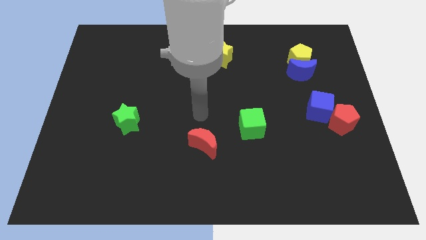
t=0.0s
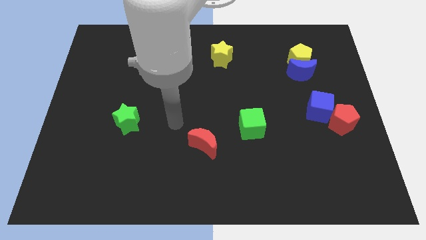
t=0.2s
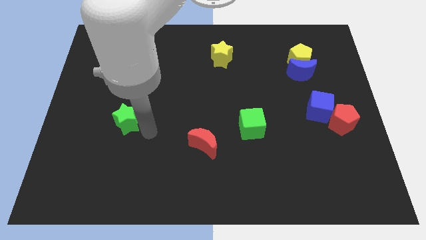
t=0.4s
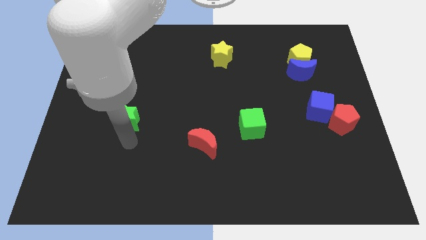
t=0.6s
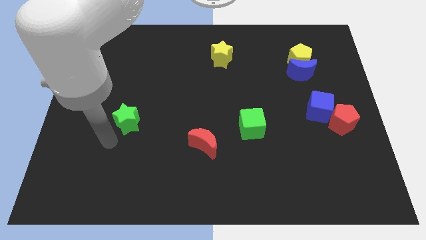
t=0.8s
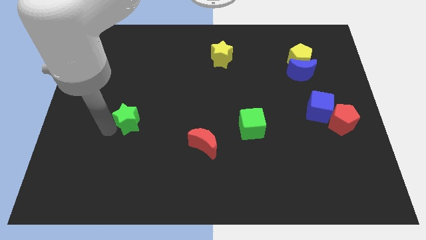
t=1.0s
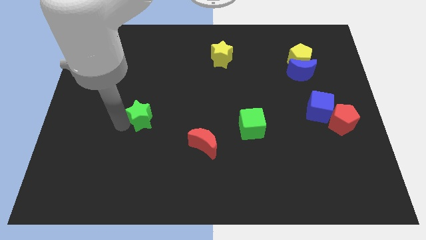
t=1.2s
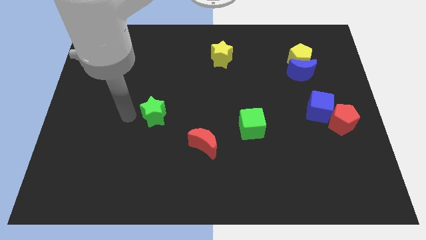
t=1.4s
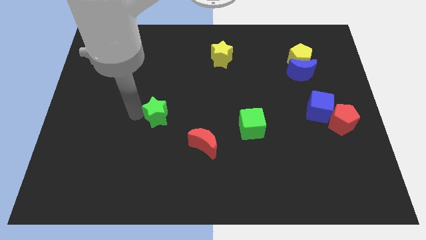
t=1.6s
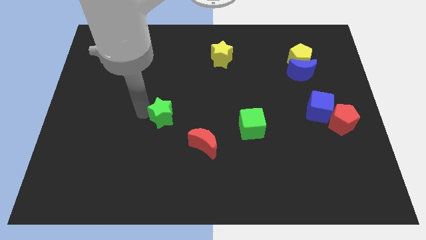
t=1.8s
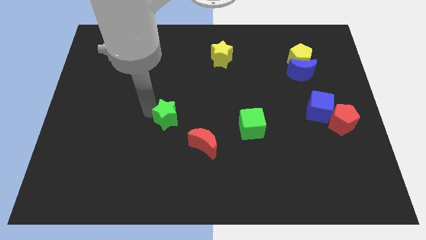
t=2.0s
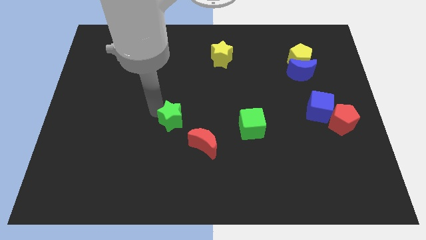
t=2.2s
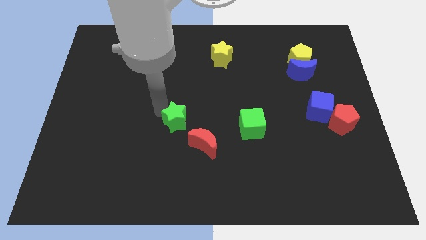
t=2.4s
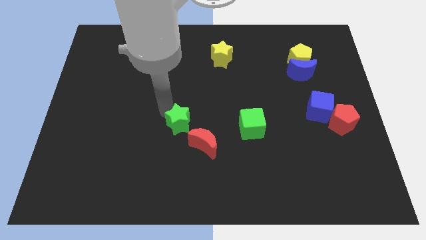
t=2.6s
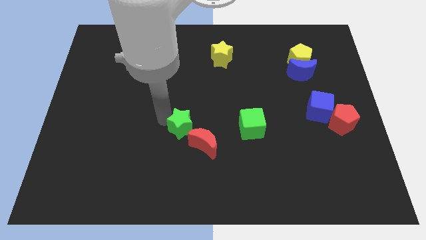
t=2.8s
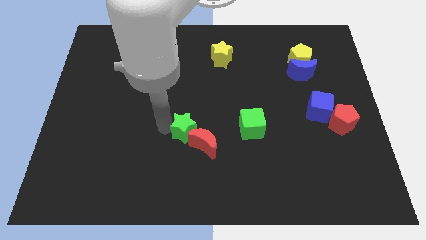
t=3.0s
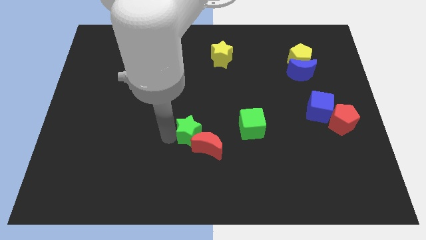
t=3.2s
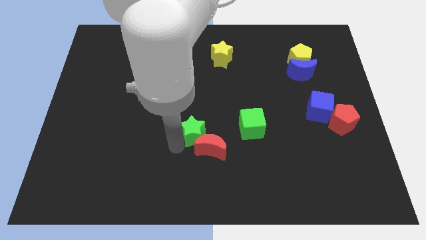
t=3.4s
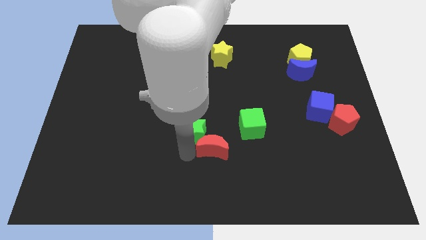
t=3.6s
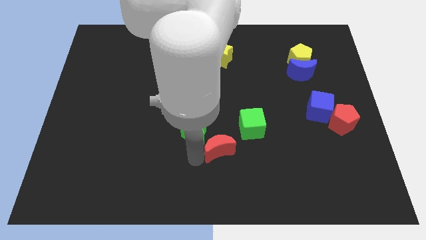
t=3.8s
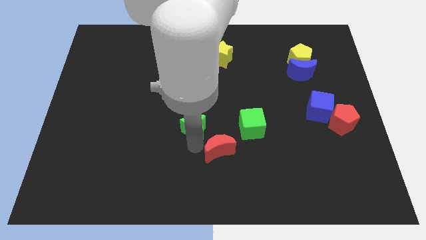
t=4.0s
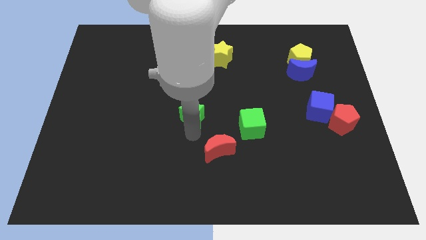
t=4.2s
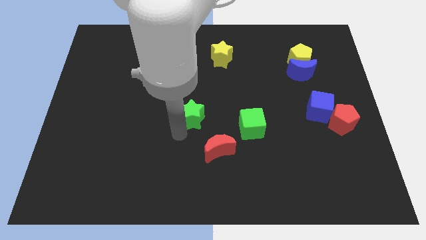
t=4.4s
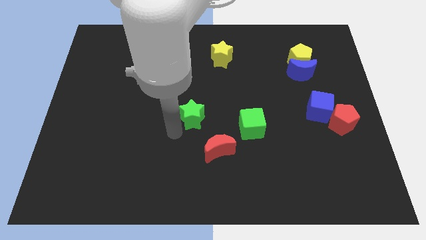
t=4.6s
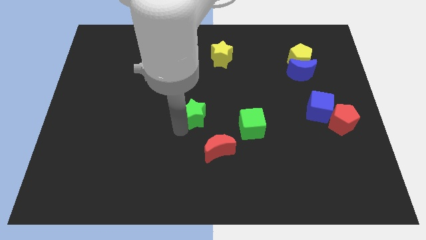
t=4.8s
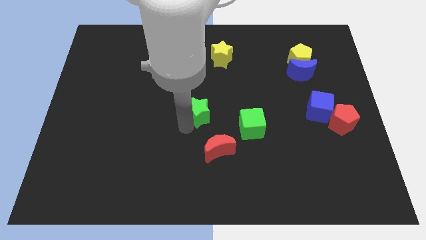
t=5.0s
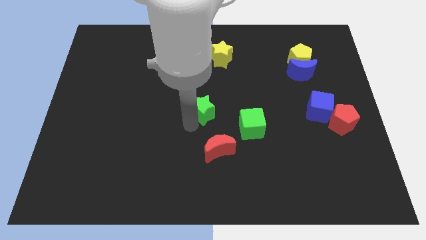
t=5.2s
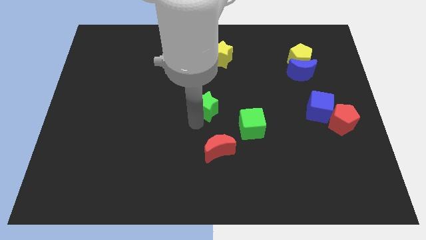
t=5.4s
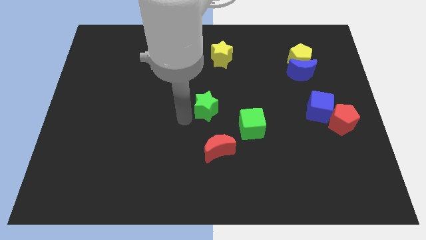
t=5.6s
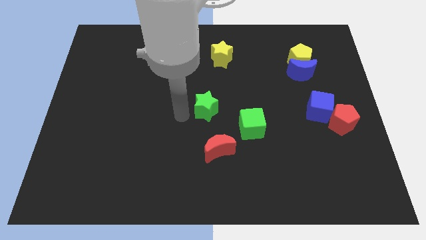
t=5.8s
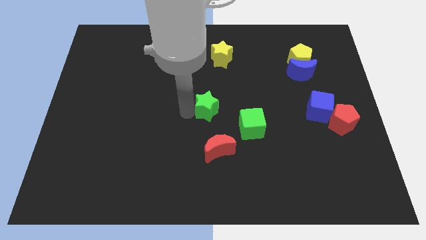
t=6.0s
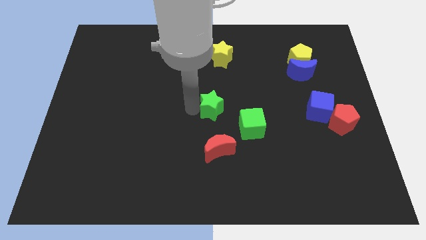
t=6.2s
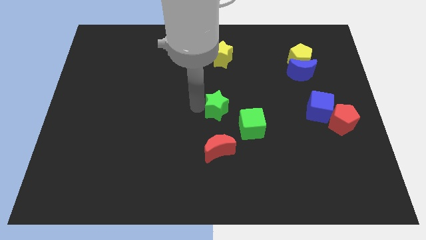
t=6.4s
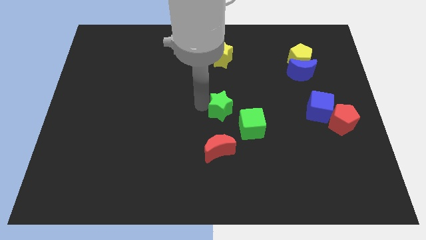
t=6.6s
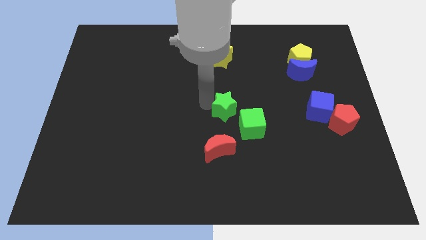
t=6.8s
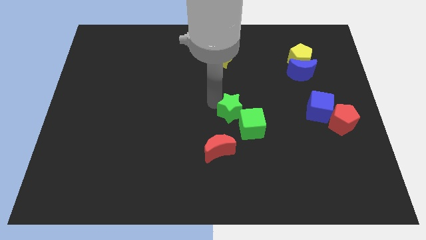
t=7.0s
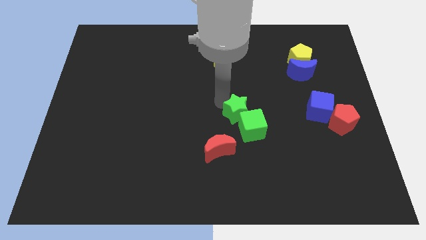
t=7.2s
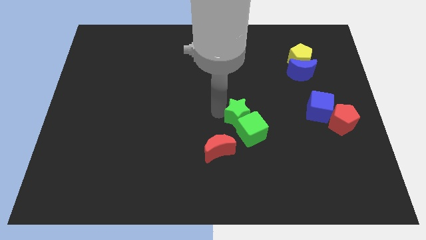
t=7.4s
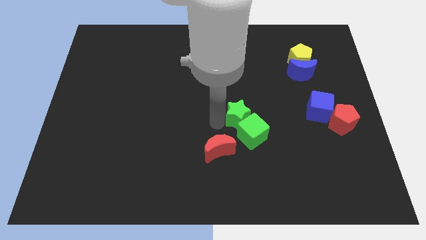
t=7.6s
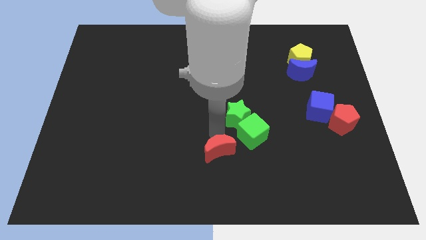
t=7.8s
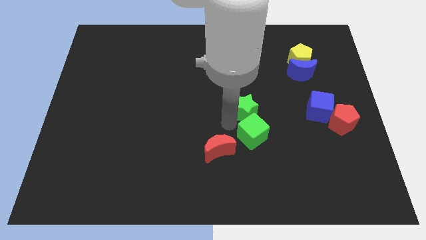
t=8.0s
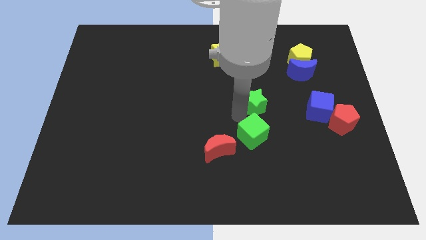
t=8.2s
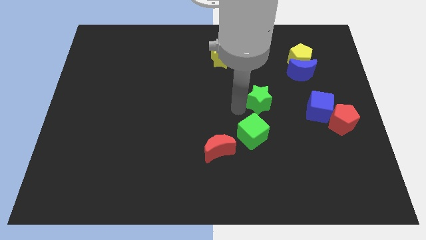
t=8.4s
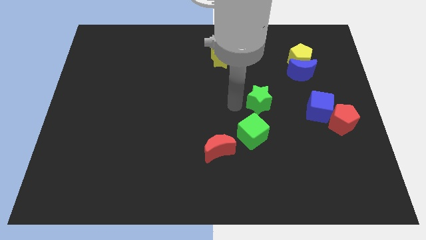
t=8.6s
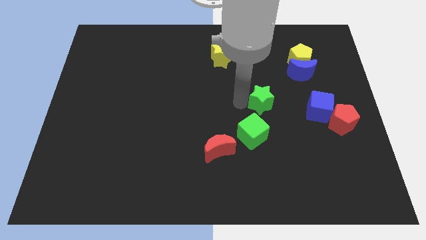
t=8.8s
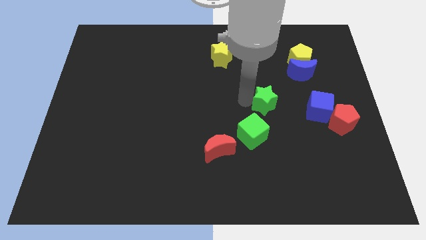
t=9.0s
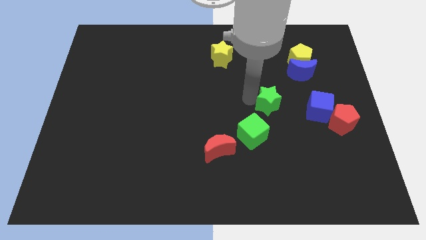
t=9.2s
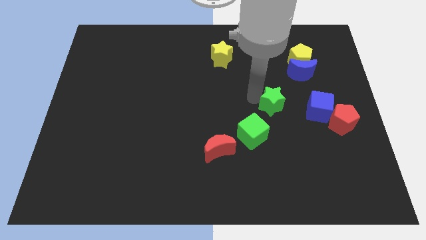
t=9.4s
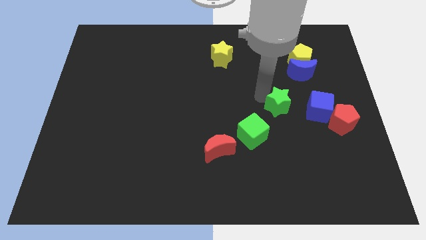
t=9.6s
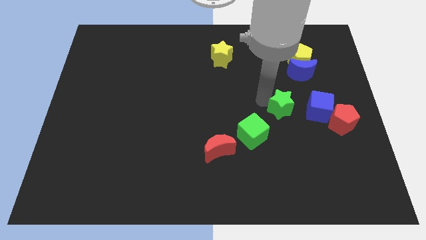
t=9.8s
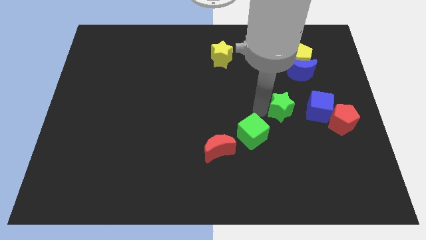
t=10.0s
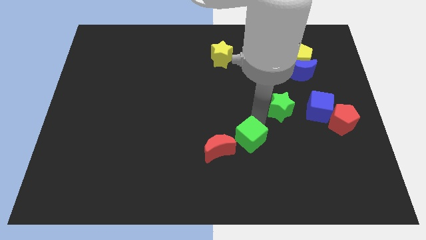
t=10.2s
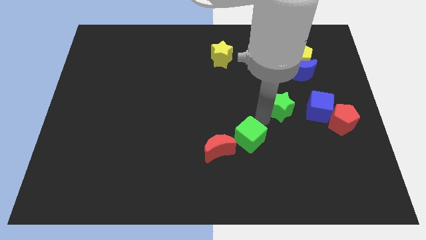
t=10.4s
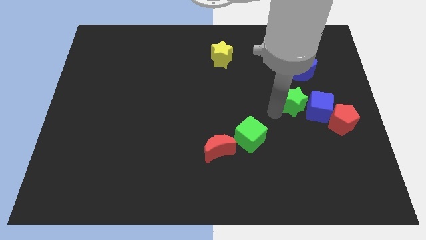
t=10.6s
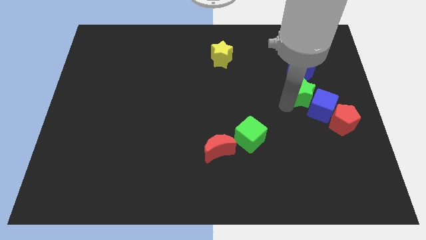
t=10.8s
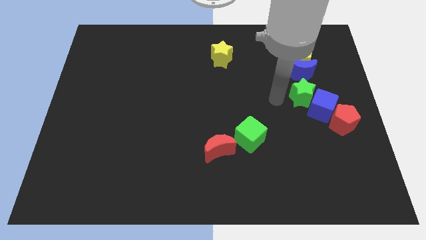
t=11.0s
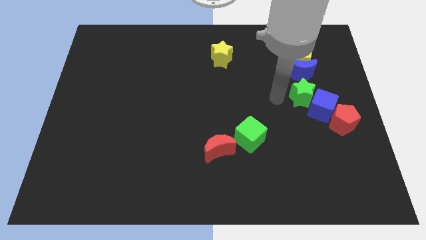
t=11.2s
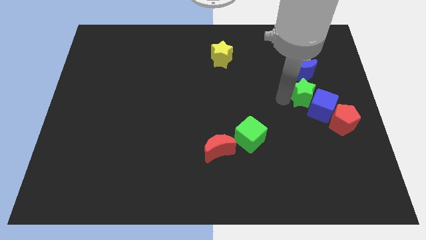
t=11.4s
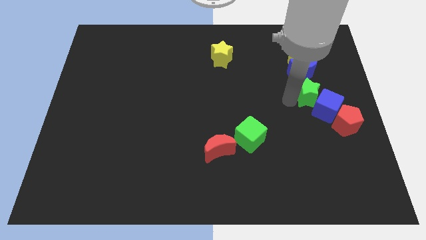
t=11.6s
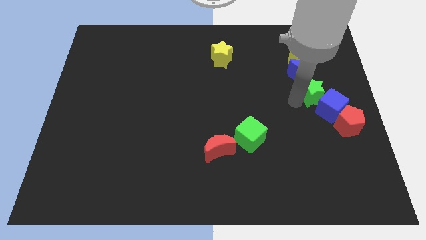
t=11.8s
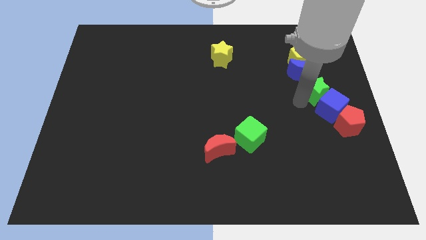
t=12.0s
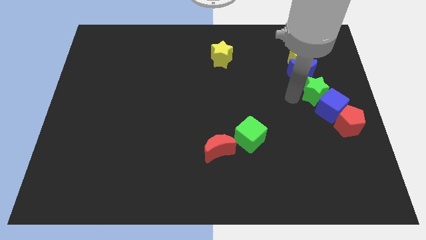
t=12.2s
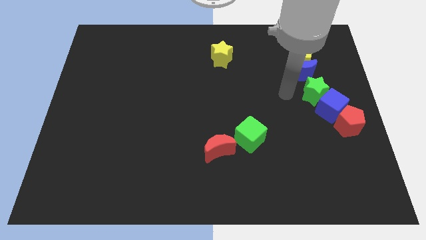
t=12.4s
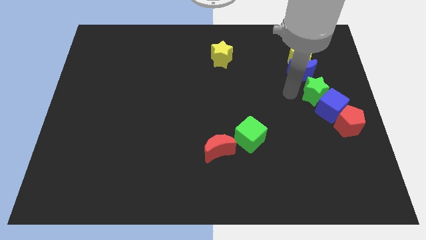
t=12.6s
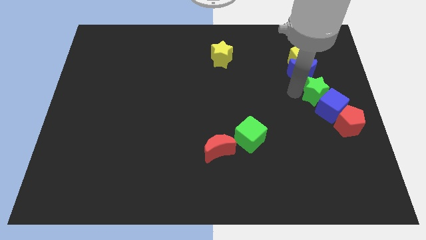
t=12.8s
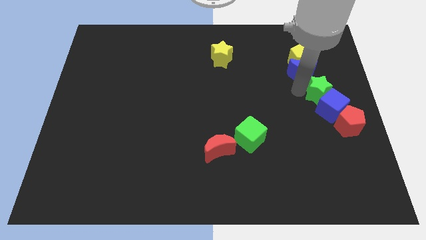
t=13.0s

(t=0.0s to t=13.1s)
move the green star to the center right
